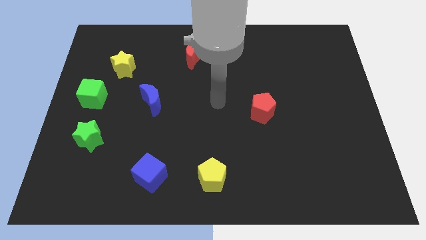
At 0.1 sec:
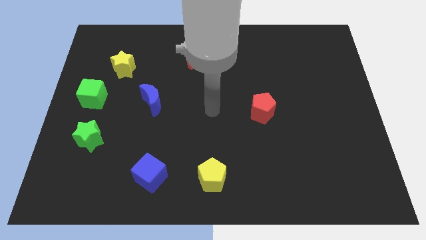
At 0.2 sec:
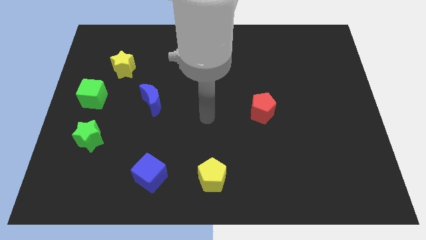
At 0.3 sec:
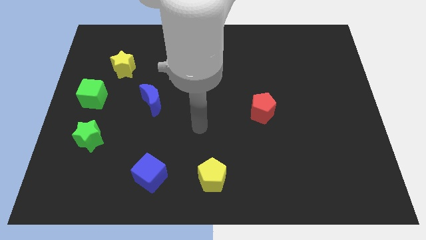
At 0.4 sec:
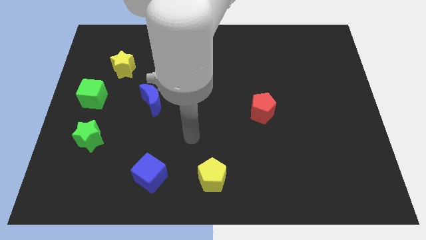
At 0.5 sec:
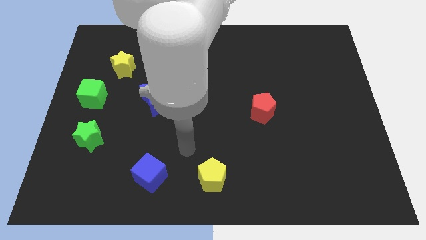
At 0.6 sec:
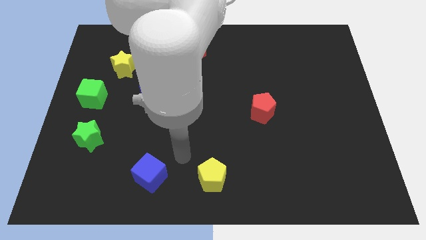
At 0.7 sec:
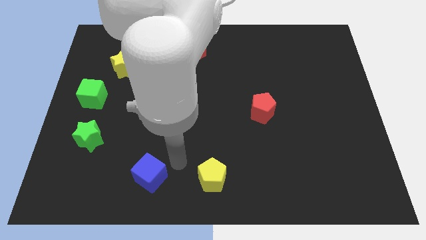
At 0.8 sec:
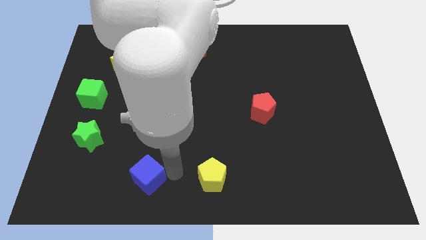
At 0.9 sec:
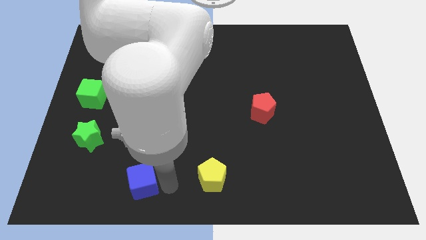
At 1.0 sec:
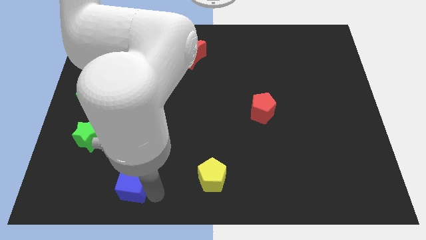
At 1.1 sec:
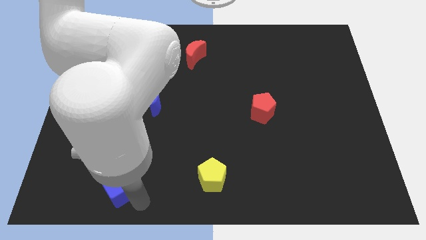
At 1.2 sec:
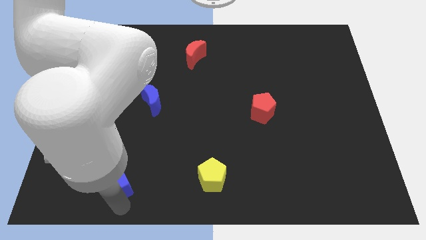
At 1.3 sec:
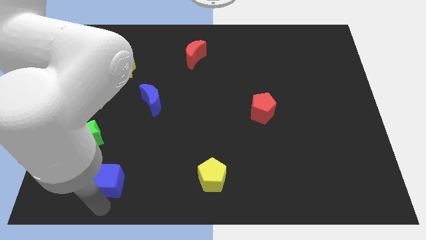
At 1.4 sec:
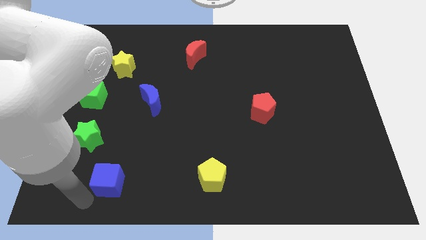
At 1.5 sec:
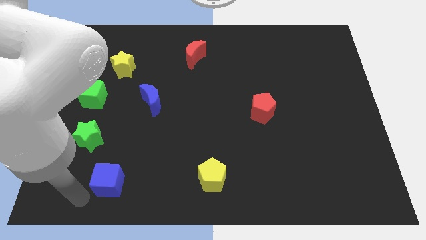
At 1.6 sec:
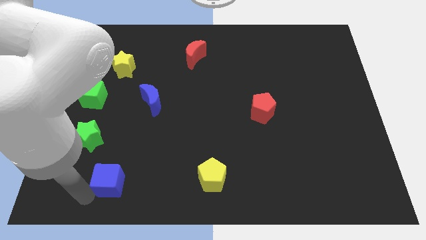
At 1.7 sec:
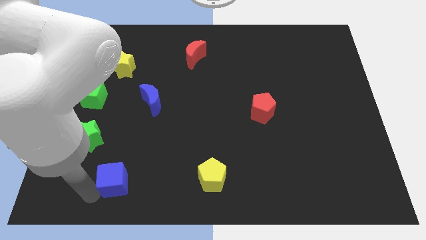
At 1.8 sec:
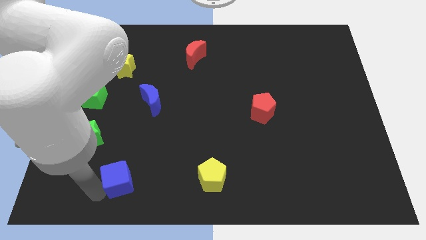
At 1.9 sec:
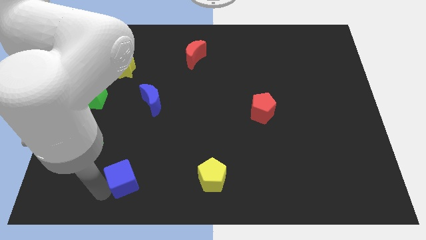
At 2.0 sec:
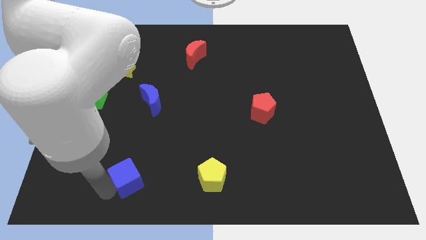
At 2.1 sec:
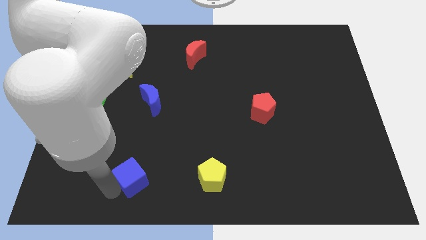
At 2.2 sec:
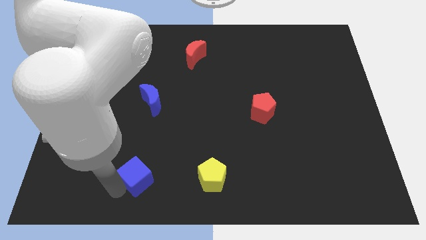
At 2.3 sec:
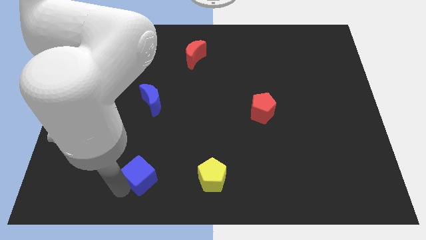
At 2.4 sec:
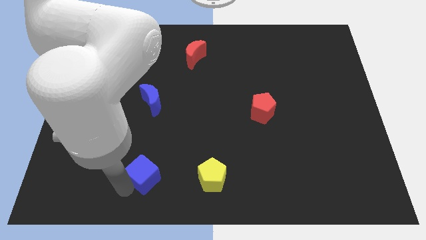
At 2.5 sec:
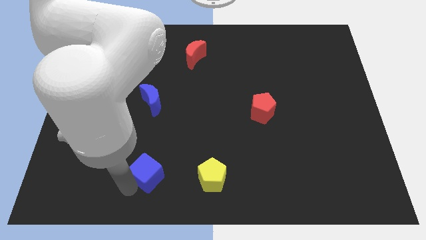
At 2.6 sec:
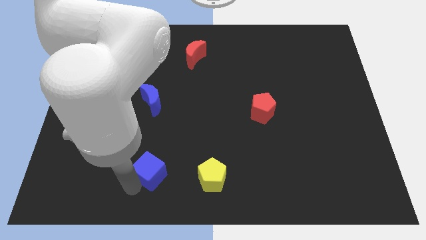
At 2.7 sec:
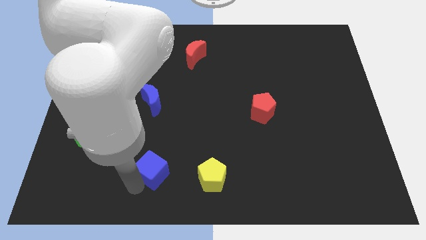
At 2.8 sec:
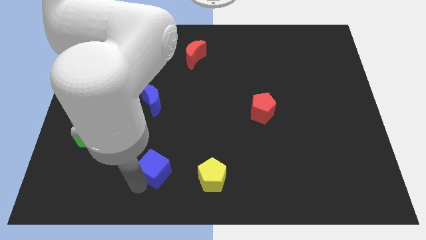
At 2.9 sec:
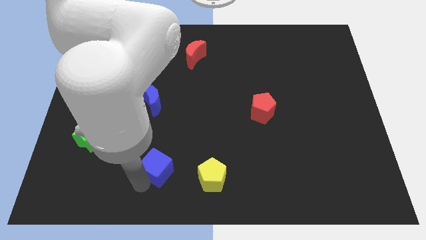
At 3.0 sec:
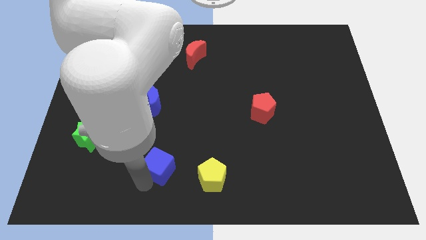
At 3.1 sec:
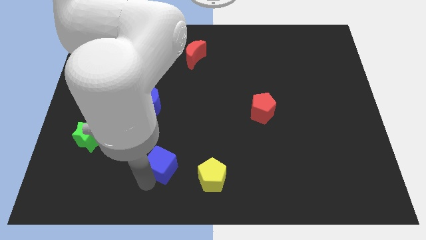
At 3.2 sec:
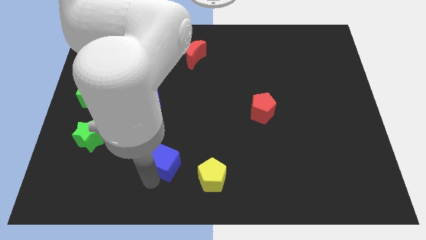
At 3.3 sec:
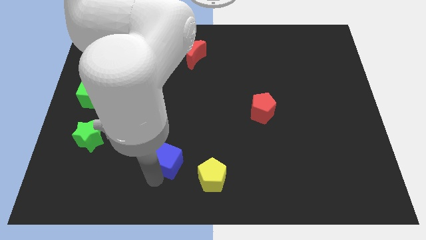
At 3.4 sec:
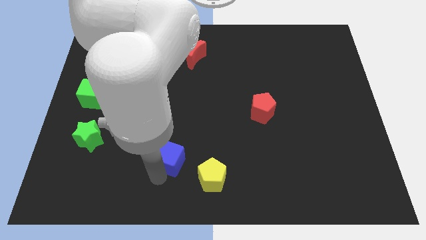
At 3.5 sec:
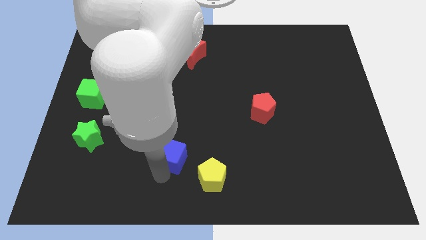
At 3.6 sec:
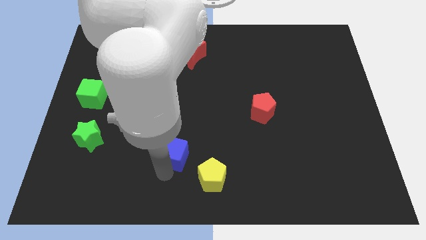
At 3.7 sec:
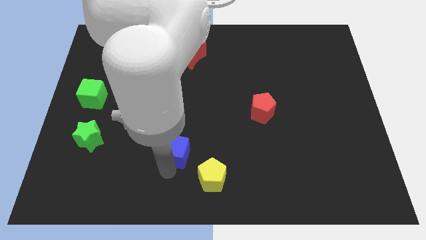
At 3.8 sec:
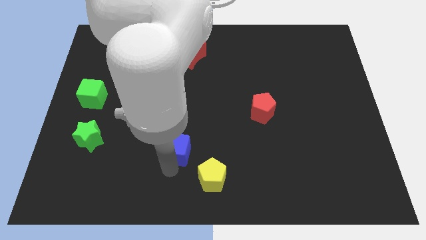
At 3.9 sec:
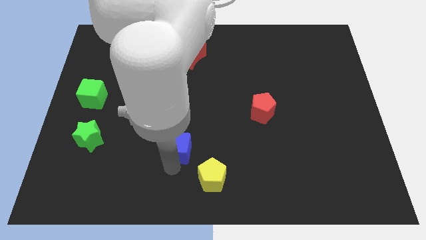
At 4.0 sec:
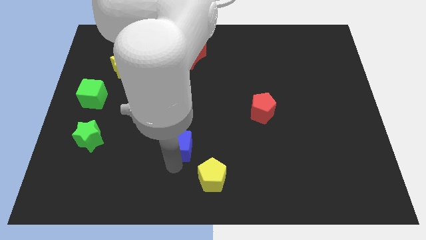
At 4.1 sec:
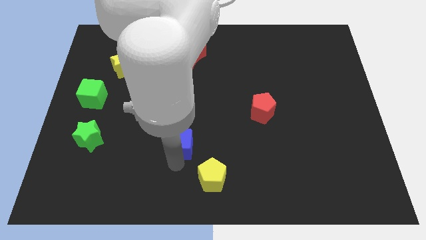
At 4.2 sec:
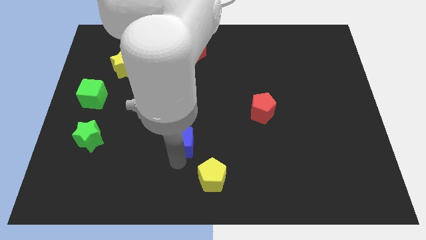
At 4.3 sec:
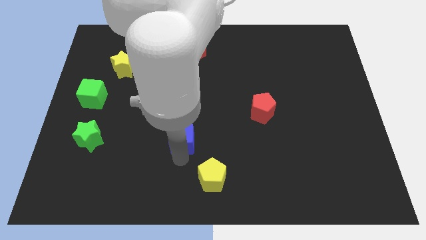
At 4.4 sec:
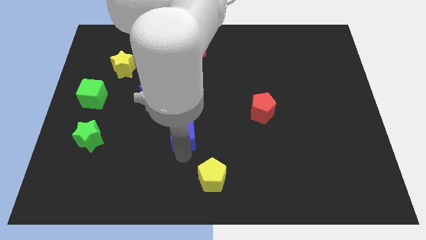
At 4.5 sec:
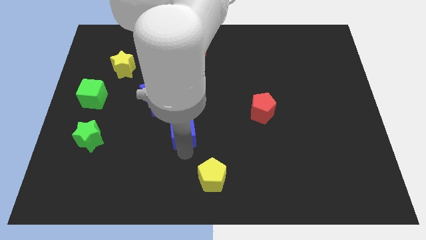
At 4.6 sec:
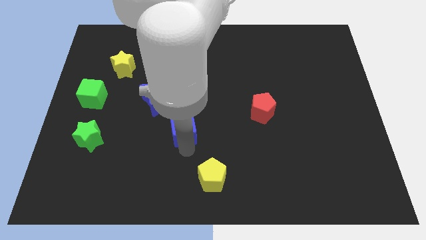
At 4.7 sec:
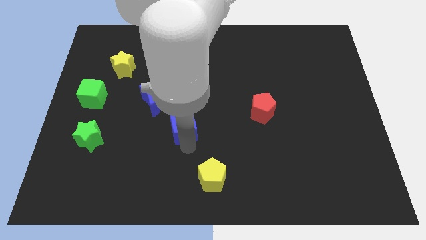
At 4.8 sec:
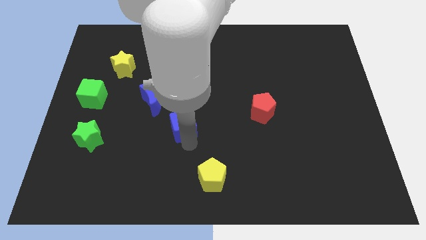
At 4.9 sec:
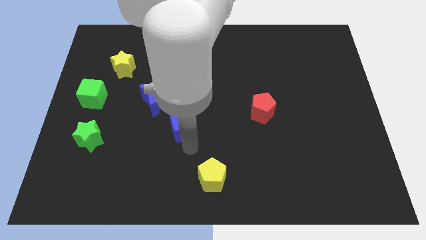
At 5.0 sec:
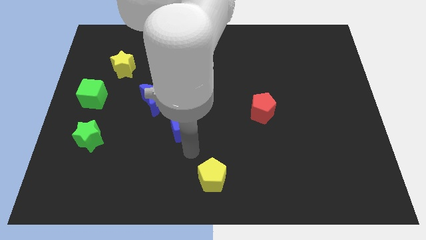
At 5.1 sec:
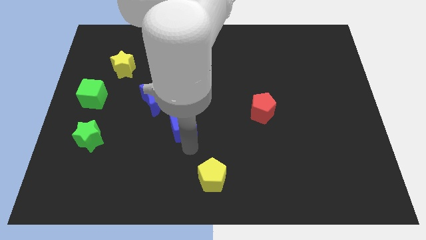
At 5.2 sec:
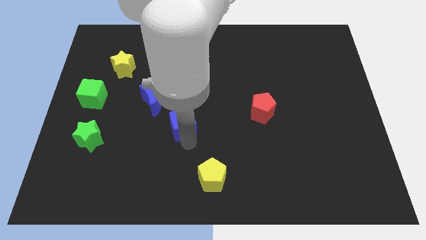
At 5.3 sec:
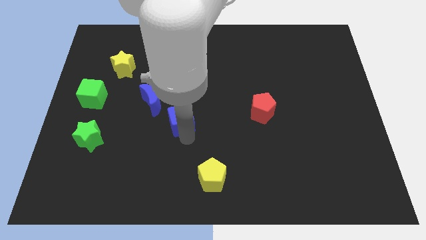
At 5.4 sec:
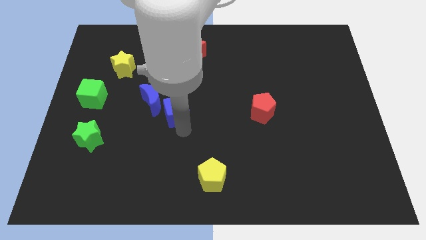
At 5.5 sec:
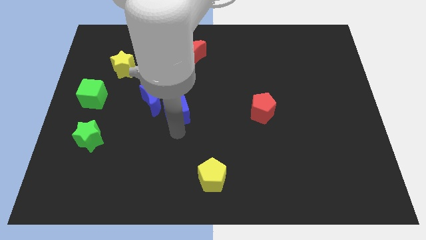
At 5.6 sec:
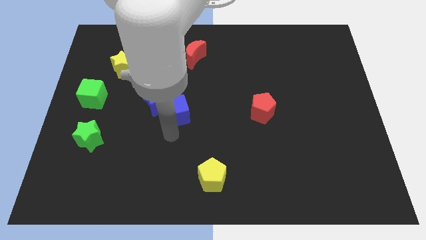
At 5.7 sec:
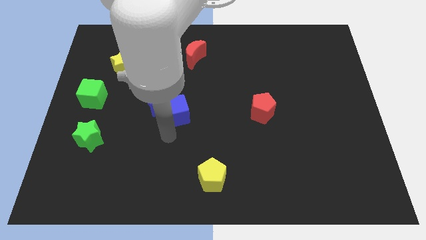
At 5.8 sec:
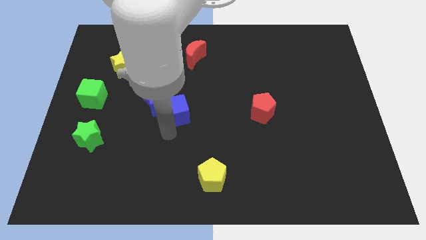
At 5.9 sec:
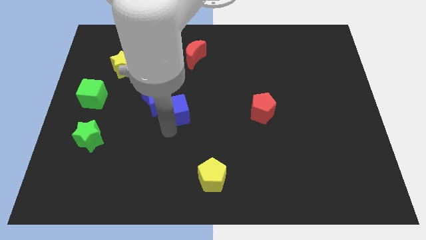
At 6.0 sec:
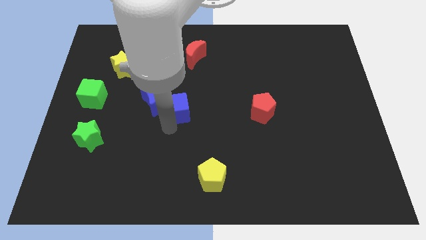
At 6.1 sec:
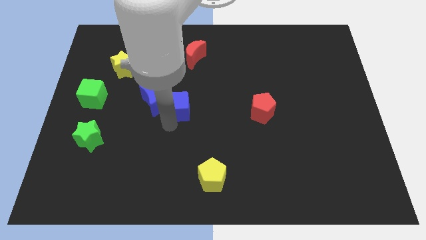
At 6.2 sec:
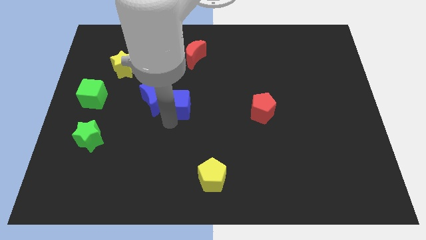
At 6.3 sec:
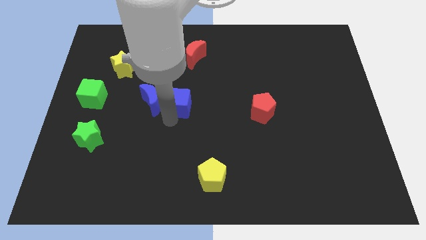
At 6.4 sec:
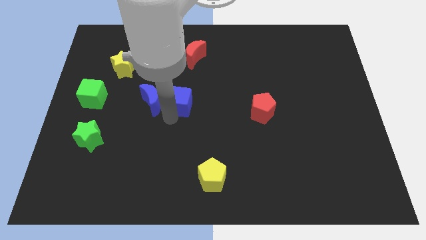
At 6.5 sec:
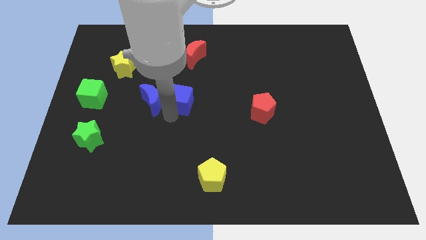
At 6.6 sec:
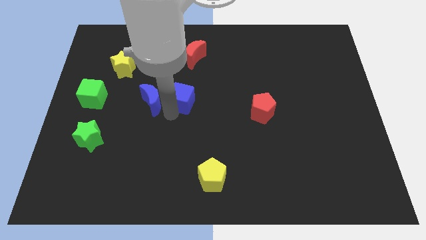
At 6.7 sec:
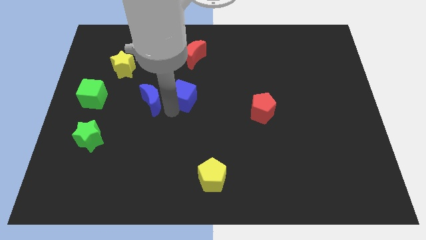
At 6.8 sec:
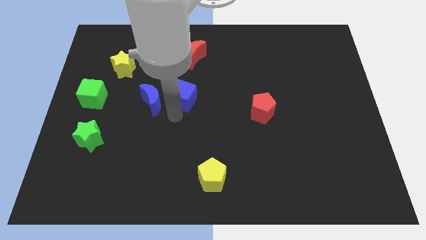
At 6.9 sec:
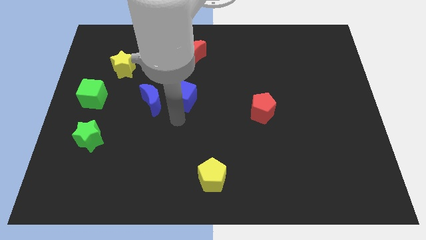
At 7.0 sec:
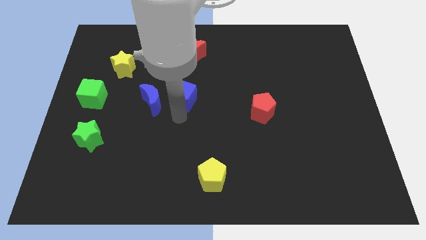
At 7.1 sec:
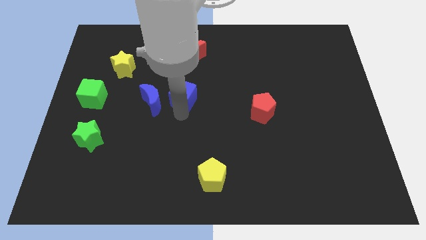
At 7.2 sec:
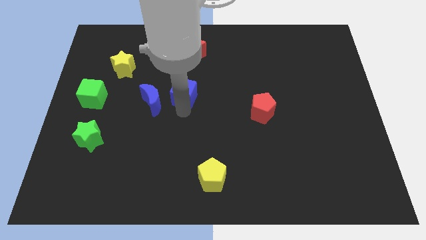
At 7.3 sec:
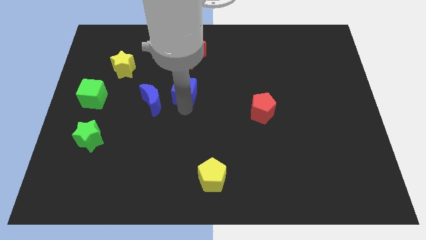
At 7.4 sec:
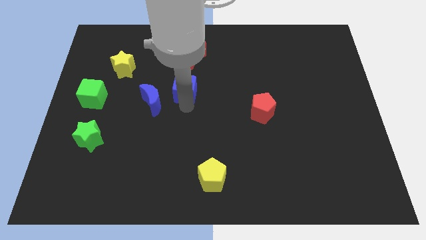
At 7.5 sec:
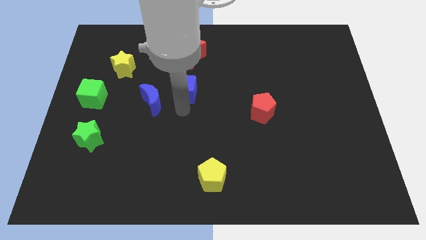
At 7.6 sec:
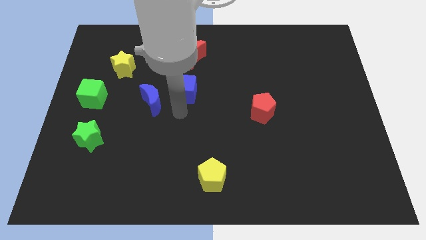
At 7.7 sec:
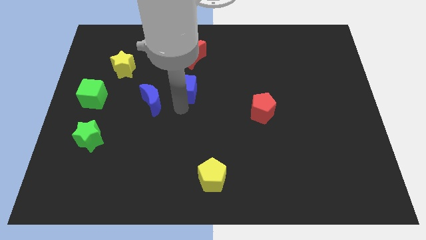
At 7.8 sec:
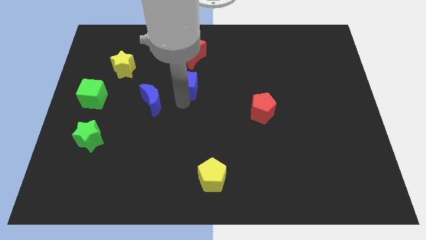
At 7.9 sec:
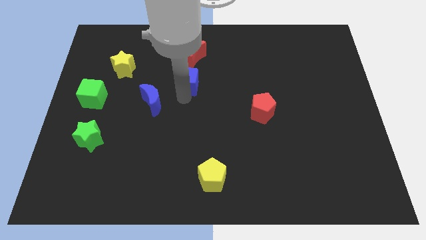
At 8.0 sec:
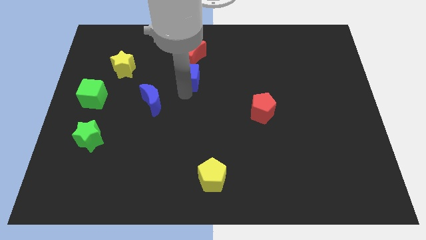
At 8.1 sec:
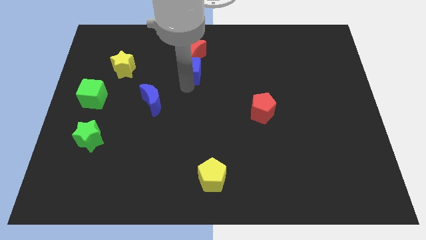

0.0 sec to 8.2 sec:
move the blue cube to the red moon
